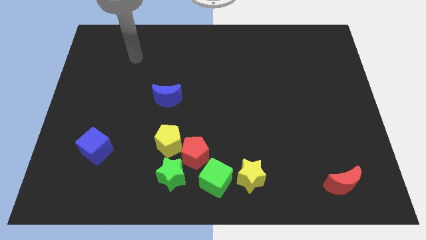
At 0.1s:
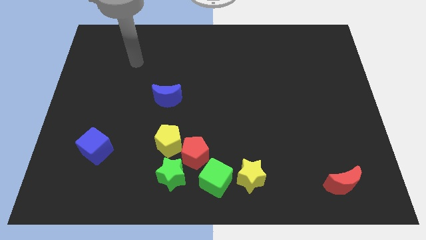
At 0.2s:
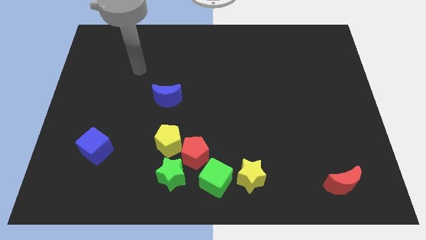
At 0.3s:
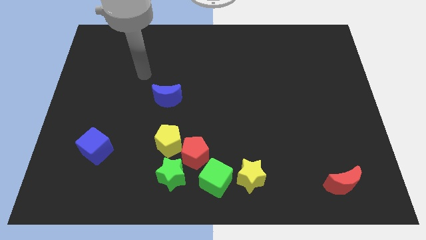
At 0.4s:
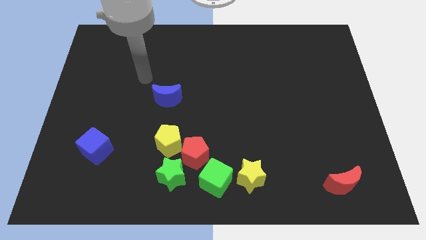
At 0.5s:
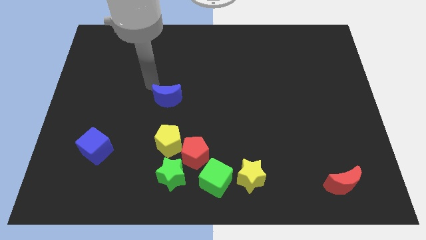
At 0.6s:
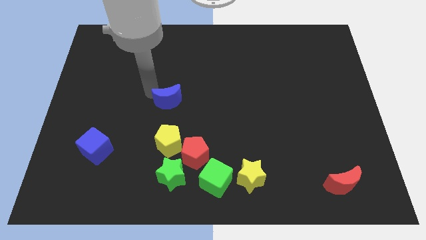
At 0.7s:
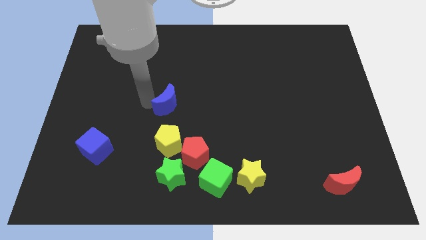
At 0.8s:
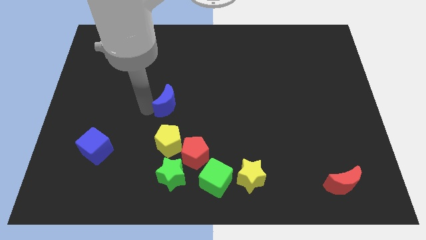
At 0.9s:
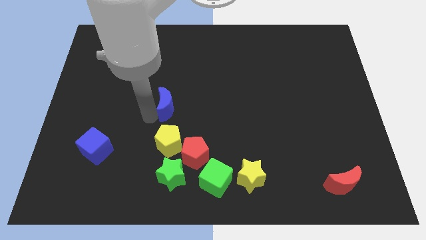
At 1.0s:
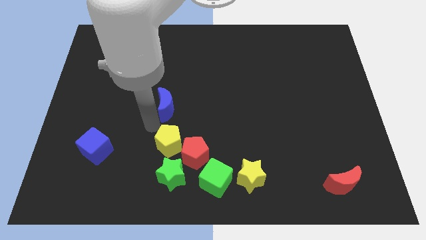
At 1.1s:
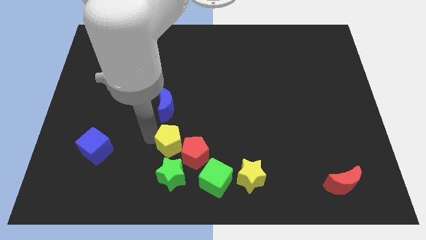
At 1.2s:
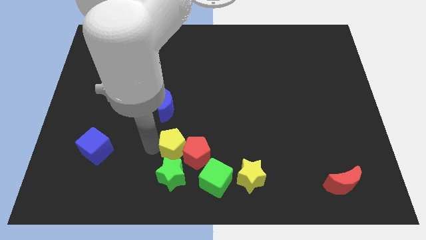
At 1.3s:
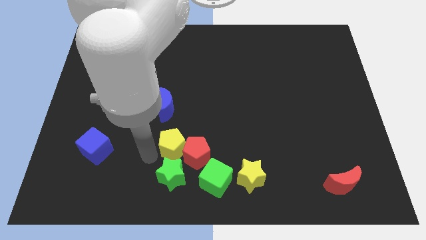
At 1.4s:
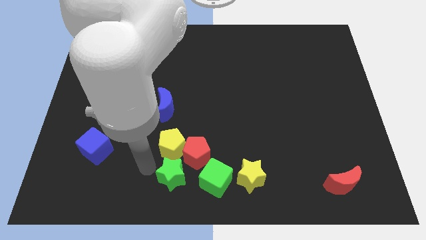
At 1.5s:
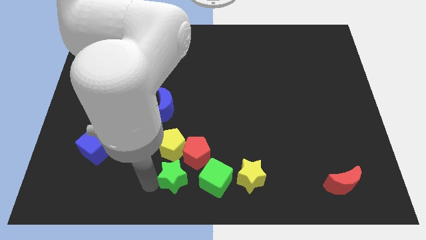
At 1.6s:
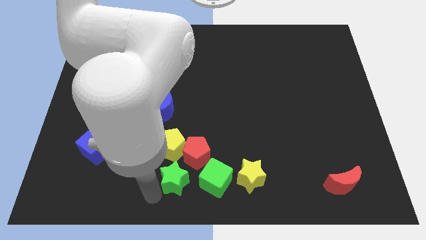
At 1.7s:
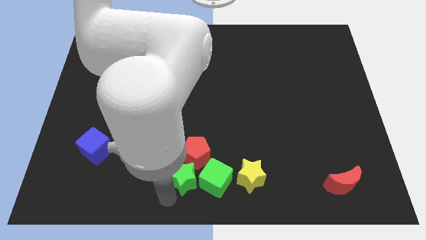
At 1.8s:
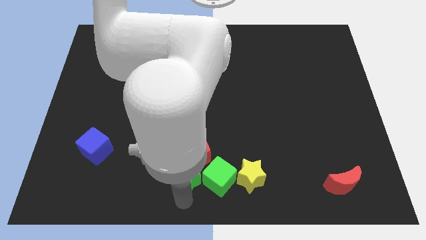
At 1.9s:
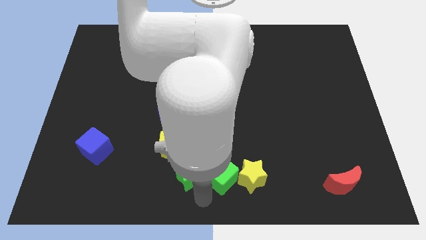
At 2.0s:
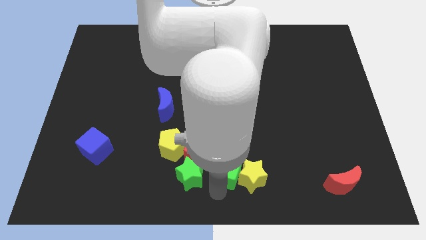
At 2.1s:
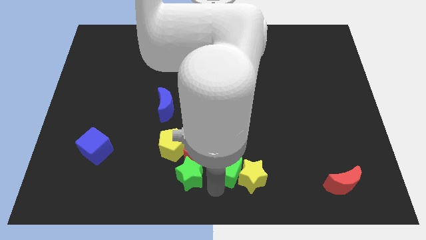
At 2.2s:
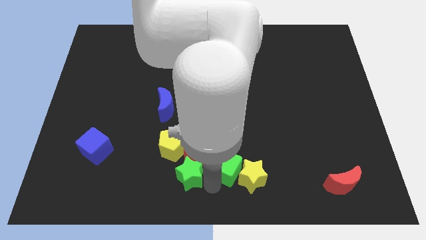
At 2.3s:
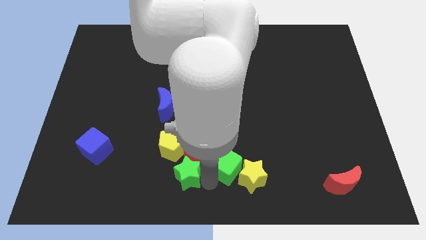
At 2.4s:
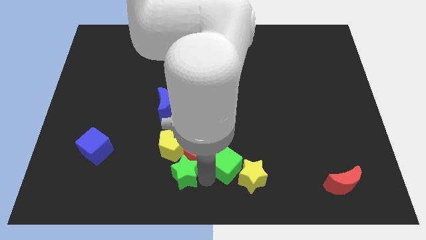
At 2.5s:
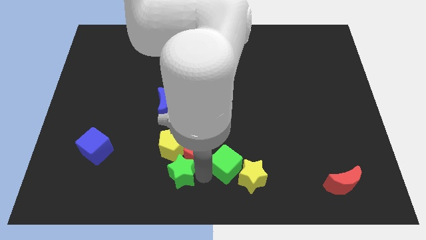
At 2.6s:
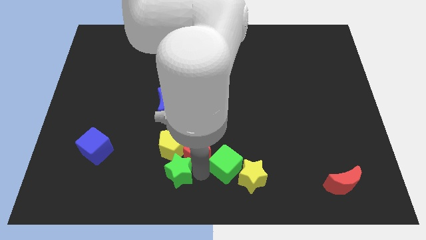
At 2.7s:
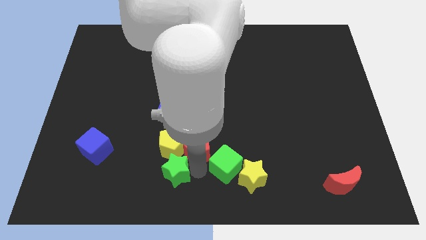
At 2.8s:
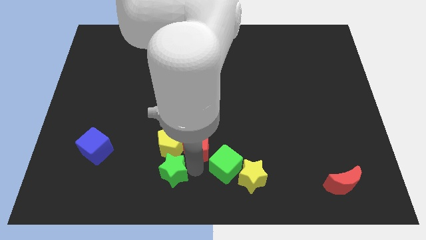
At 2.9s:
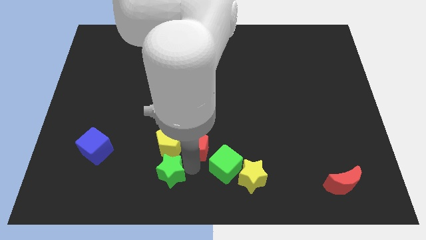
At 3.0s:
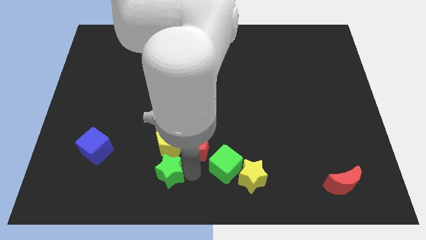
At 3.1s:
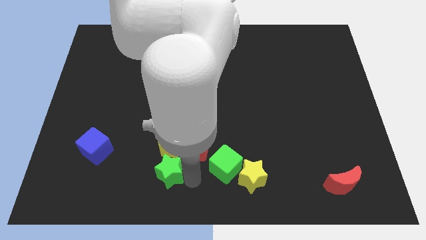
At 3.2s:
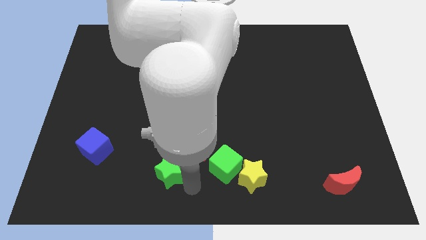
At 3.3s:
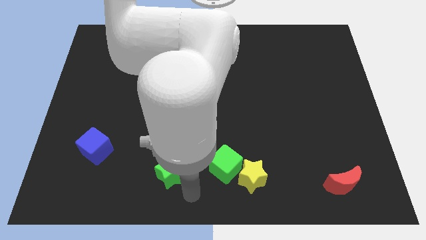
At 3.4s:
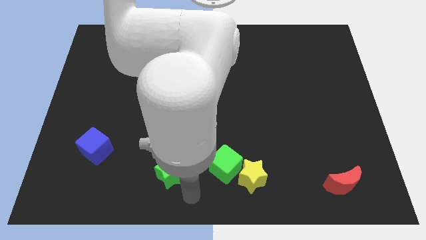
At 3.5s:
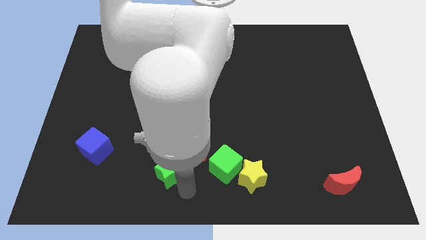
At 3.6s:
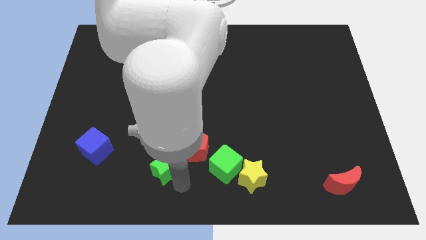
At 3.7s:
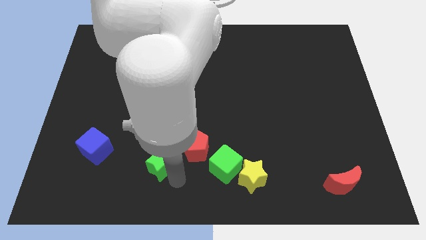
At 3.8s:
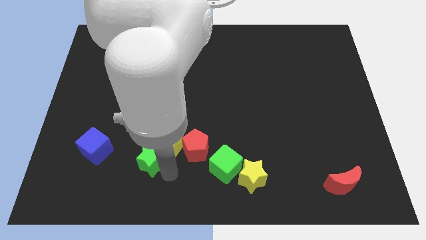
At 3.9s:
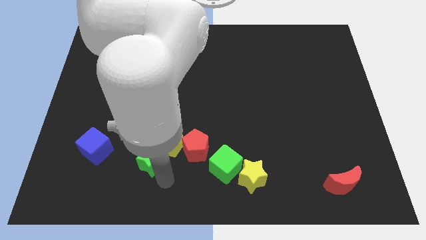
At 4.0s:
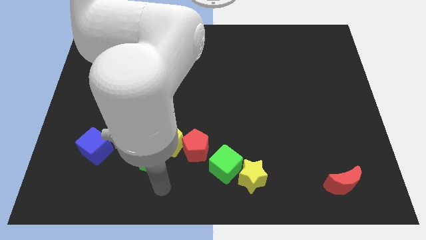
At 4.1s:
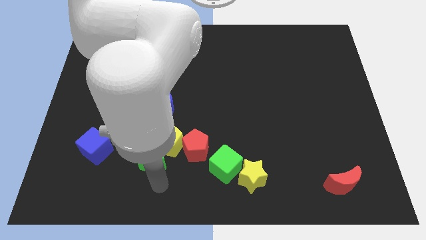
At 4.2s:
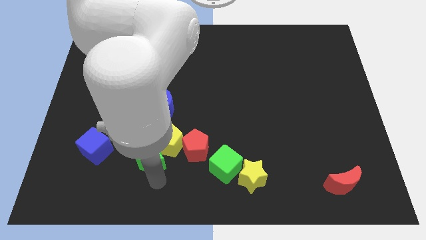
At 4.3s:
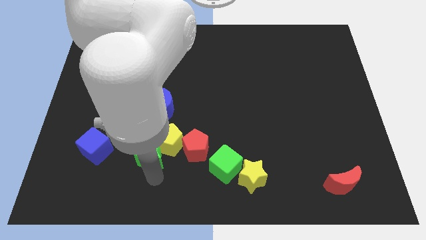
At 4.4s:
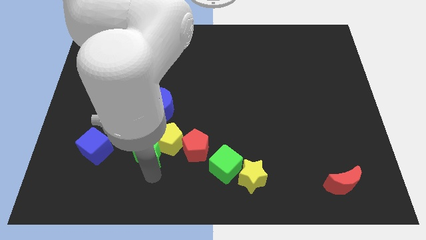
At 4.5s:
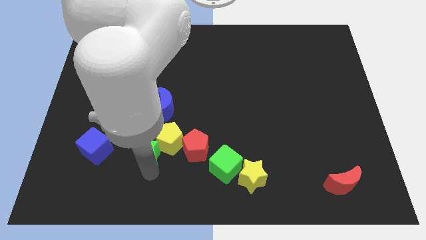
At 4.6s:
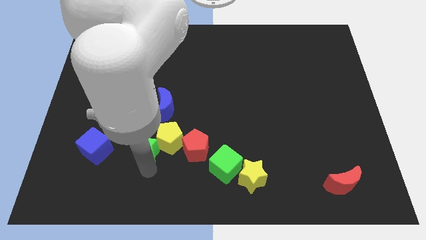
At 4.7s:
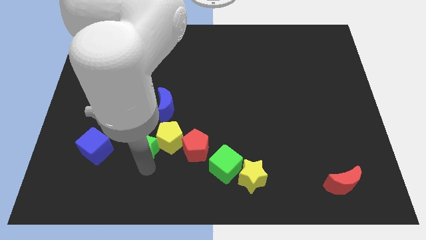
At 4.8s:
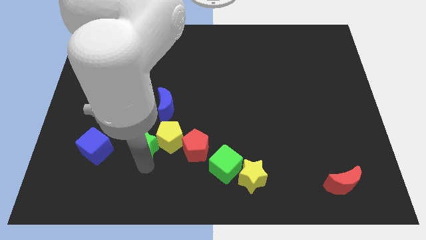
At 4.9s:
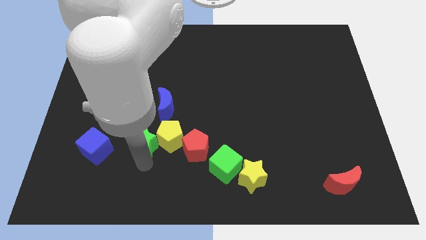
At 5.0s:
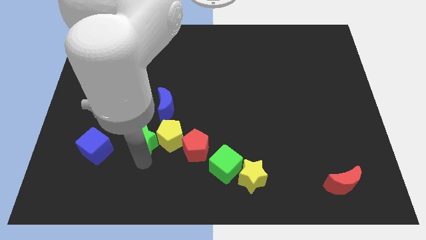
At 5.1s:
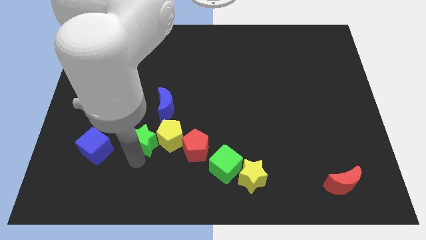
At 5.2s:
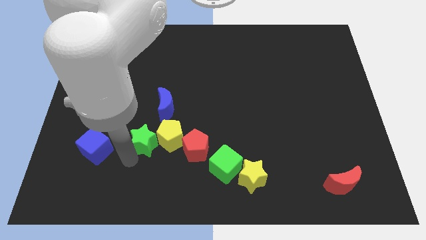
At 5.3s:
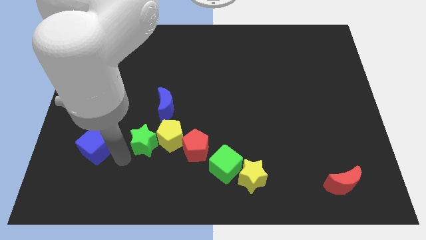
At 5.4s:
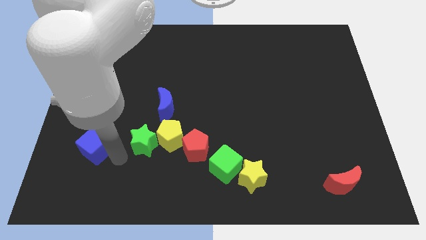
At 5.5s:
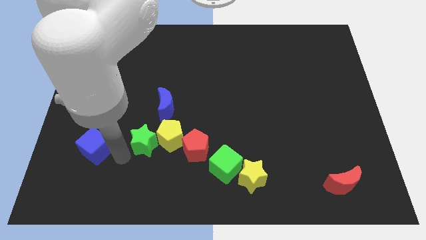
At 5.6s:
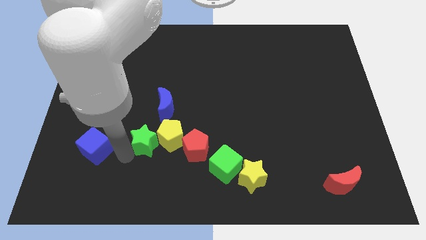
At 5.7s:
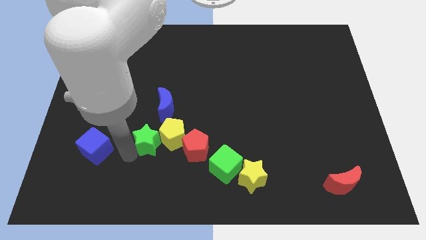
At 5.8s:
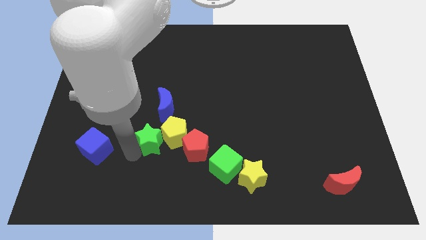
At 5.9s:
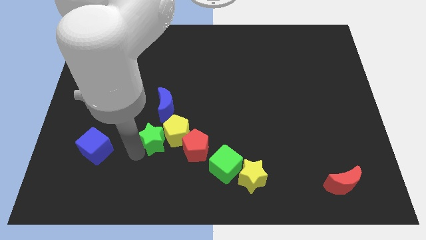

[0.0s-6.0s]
put the green star diagonally up and to the left of the red pentagon

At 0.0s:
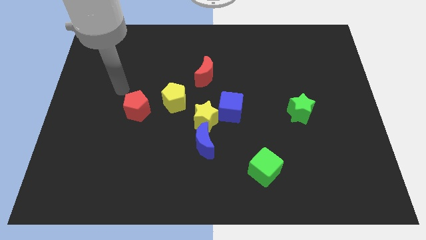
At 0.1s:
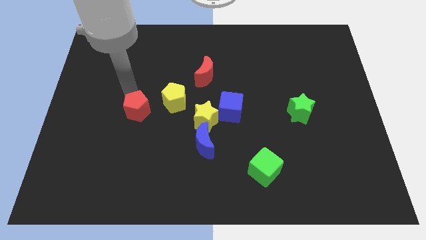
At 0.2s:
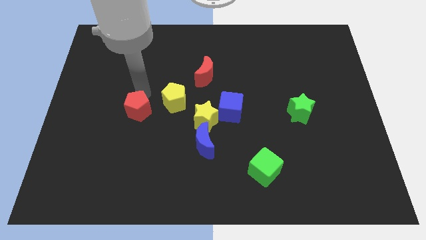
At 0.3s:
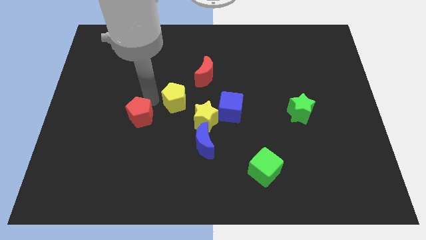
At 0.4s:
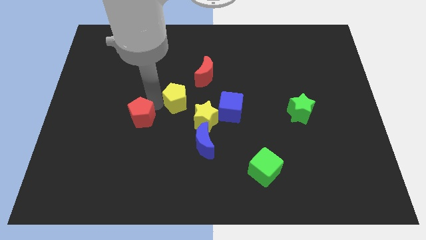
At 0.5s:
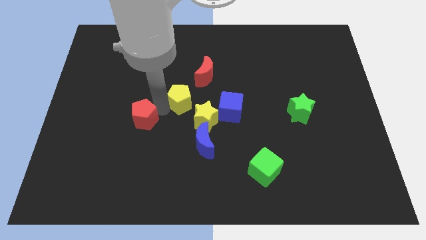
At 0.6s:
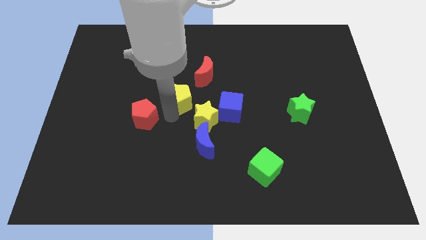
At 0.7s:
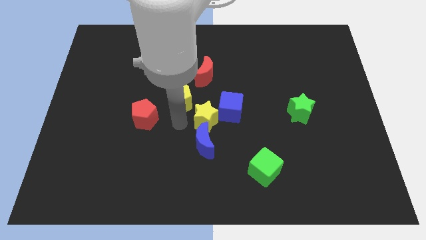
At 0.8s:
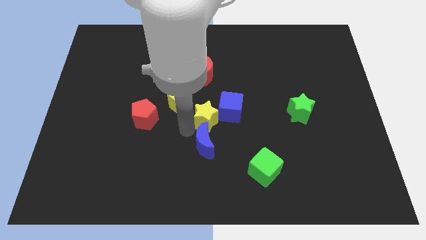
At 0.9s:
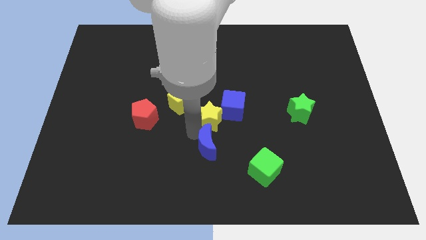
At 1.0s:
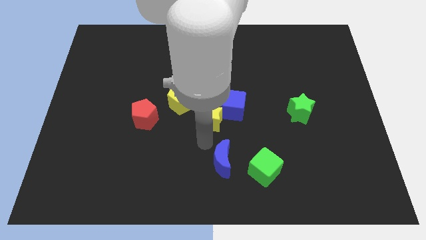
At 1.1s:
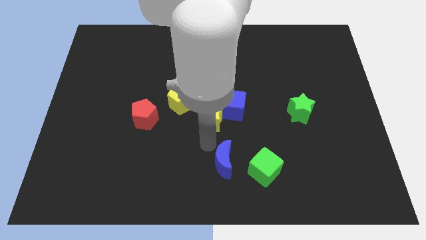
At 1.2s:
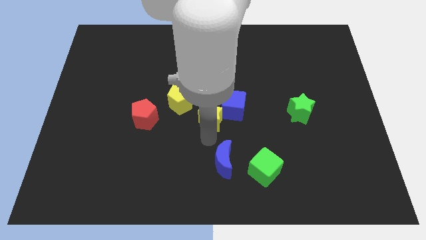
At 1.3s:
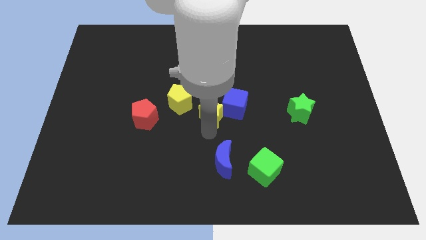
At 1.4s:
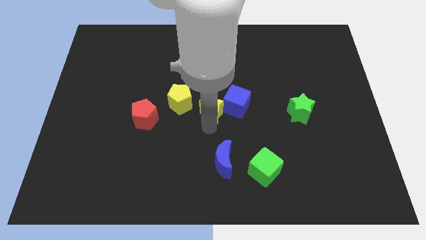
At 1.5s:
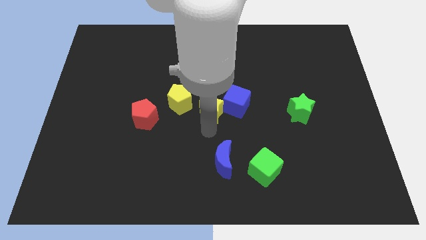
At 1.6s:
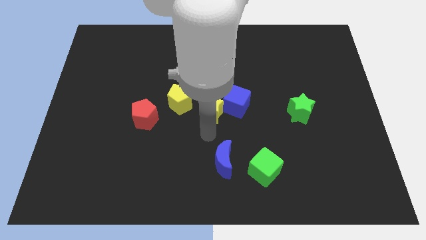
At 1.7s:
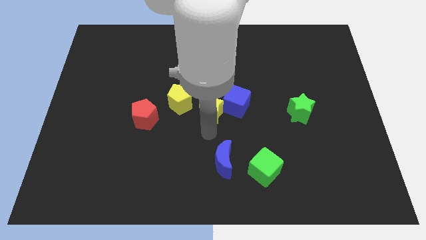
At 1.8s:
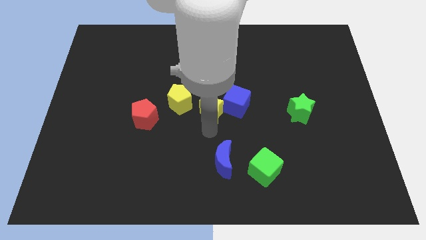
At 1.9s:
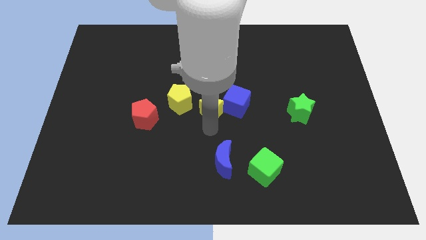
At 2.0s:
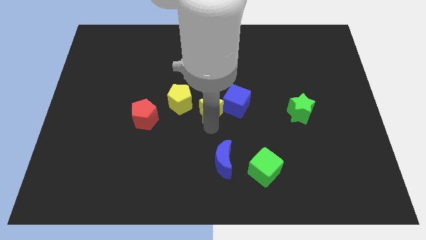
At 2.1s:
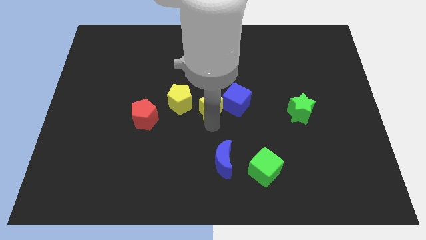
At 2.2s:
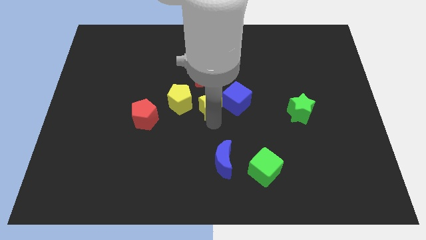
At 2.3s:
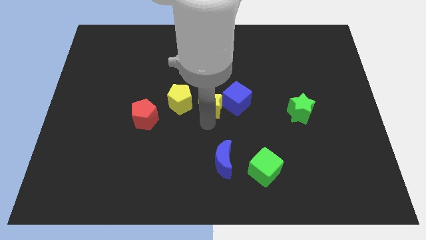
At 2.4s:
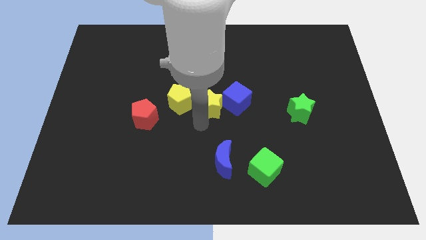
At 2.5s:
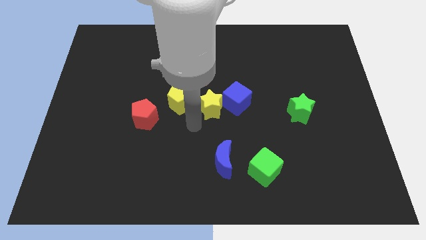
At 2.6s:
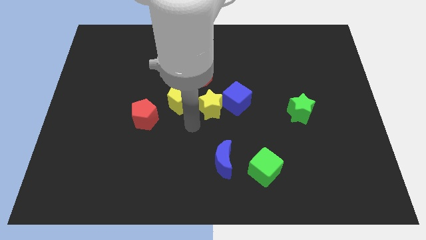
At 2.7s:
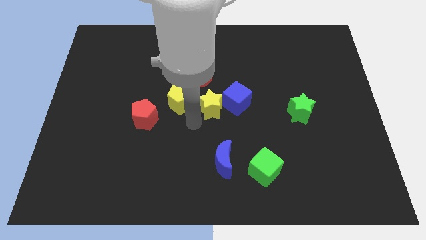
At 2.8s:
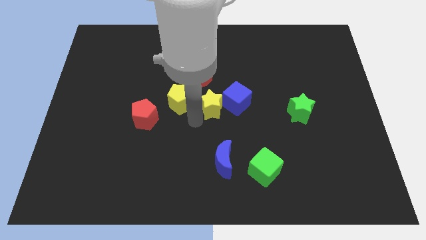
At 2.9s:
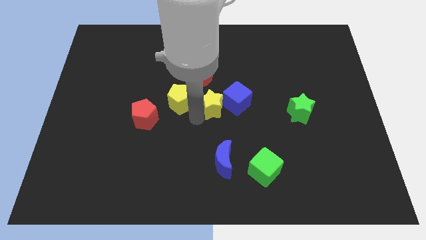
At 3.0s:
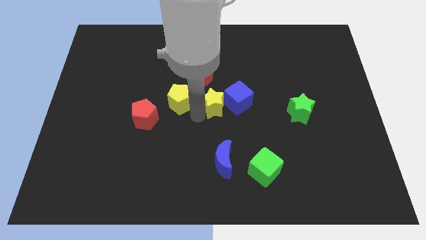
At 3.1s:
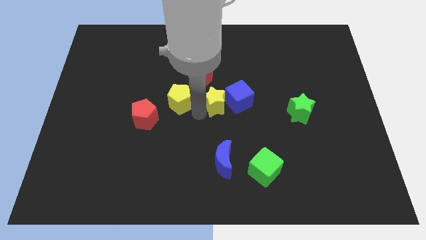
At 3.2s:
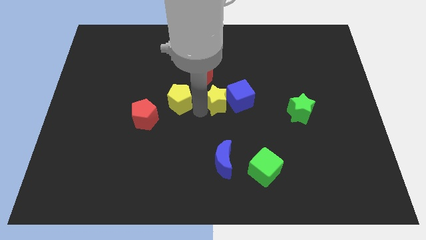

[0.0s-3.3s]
push the yellow star diagonally down and to the right of the red moon
